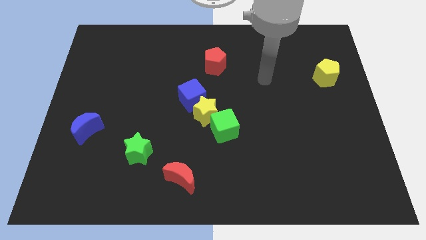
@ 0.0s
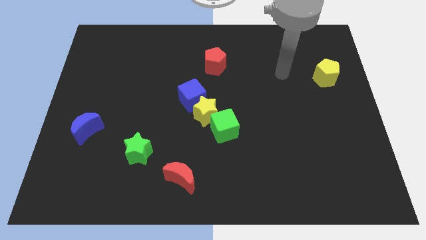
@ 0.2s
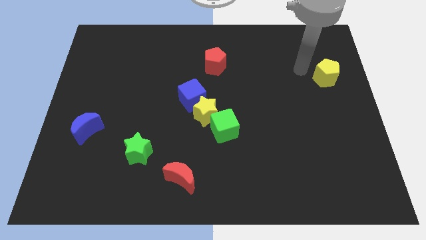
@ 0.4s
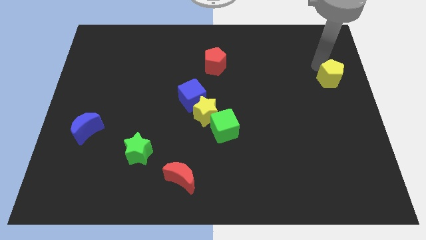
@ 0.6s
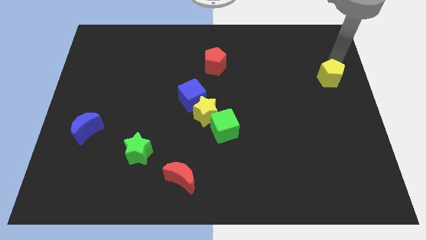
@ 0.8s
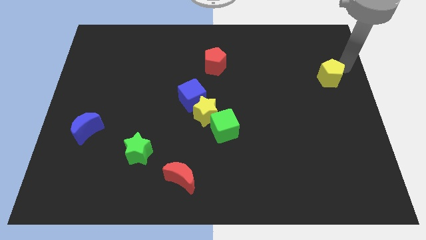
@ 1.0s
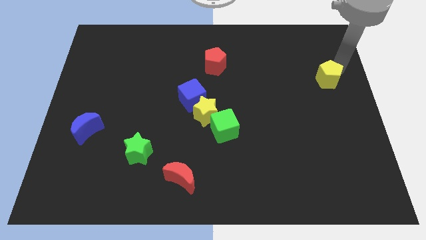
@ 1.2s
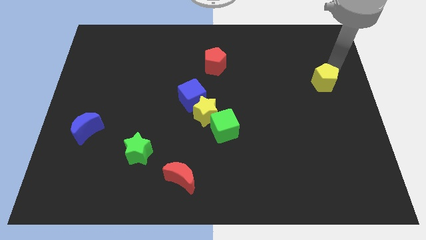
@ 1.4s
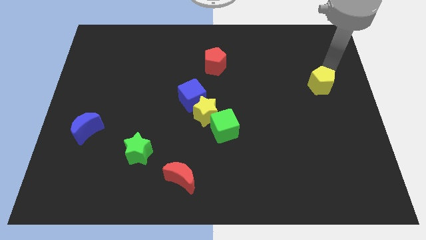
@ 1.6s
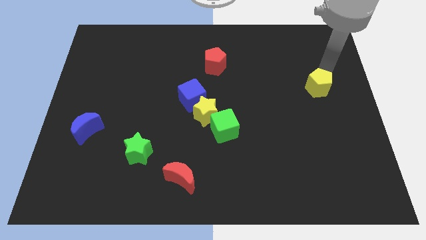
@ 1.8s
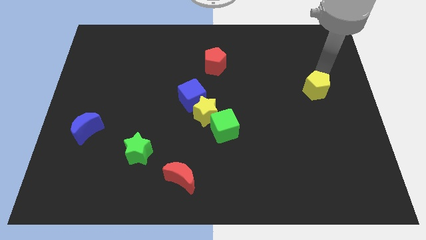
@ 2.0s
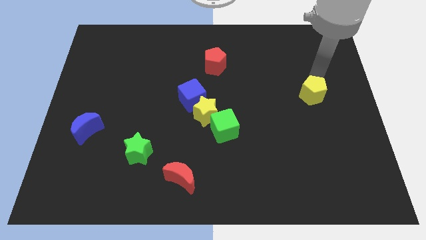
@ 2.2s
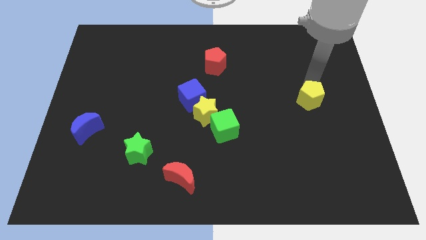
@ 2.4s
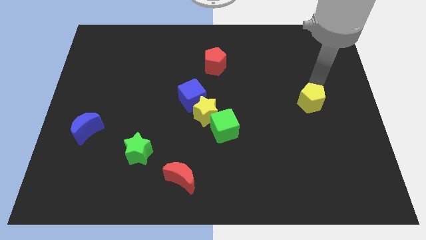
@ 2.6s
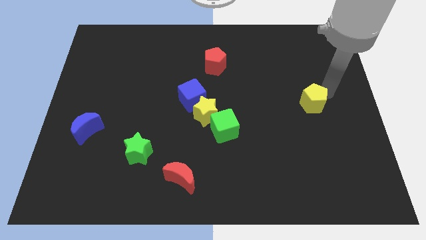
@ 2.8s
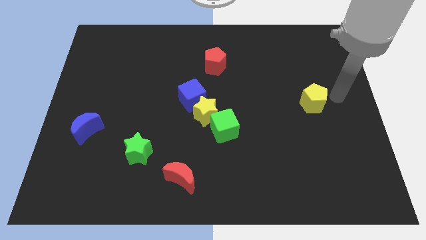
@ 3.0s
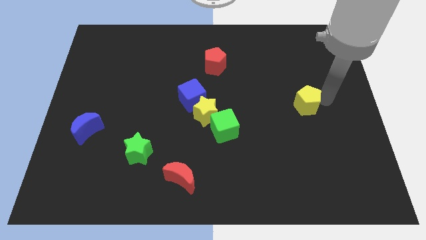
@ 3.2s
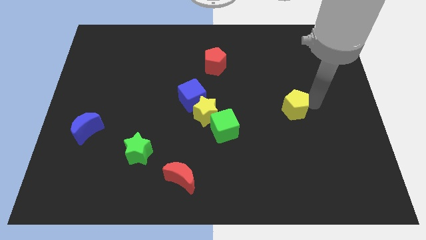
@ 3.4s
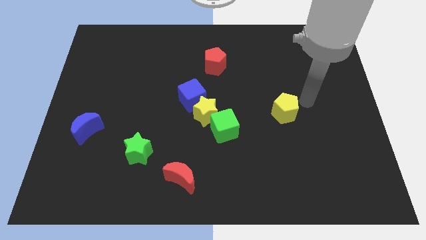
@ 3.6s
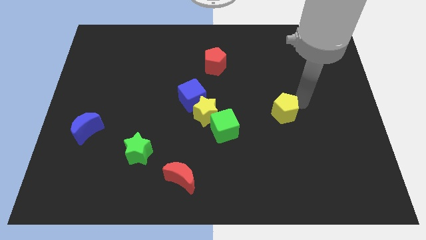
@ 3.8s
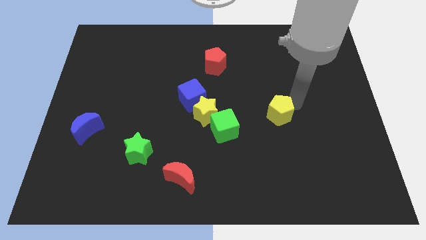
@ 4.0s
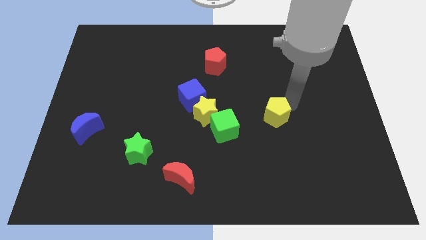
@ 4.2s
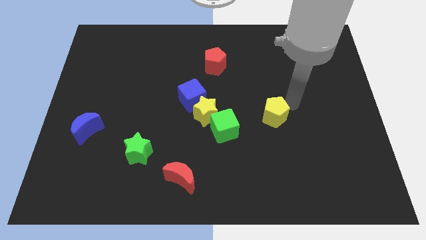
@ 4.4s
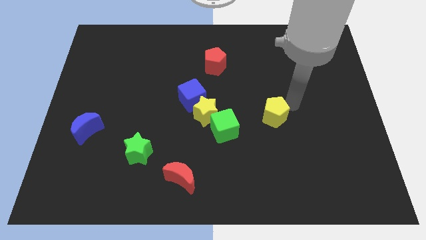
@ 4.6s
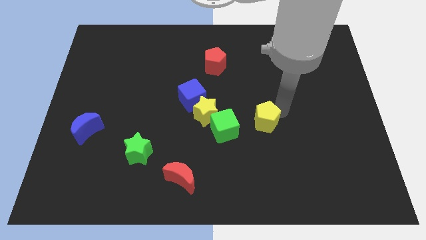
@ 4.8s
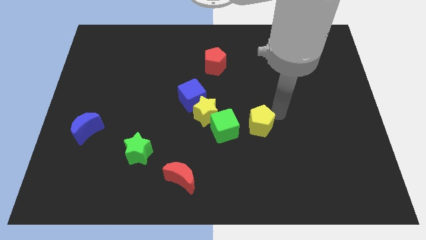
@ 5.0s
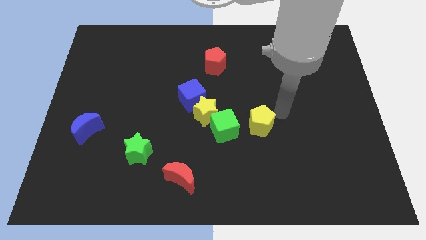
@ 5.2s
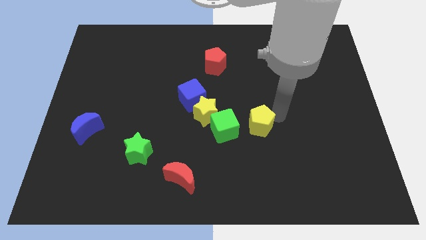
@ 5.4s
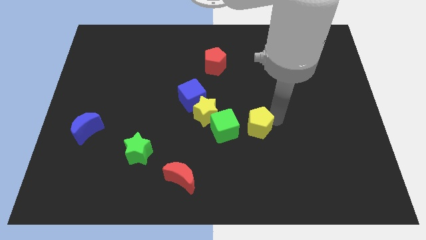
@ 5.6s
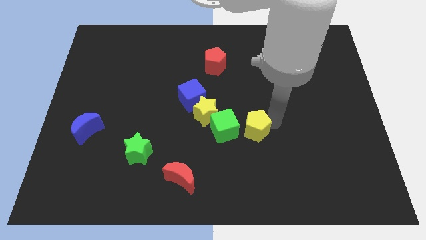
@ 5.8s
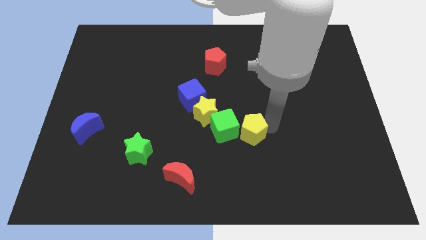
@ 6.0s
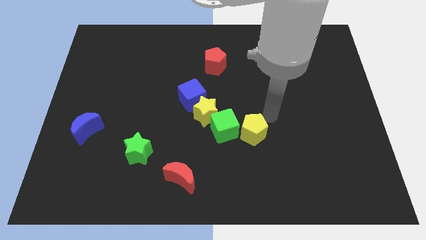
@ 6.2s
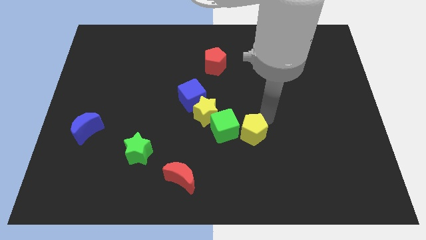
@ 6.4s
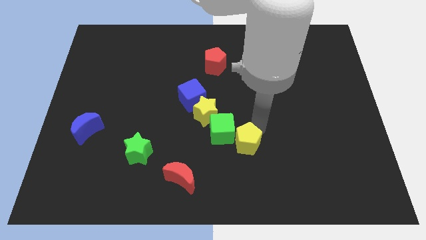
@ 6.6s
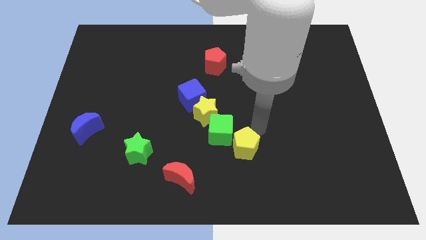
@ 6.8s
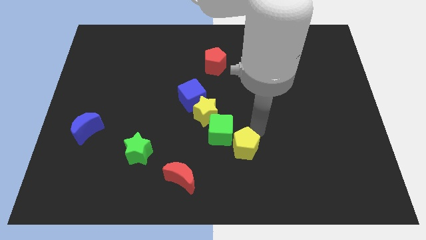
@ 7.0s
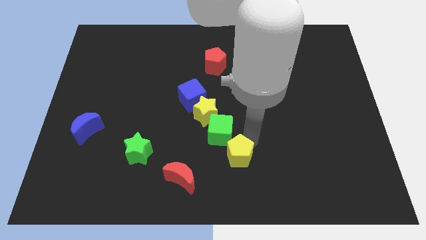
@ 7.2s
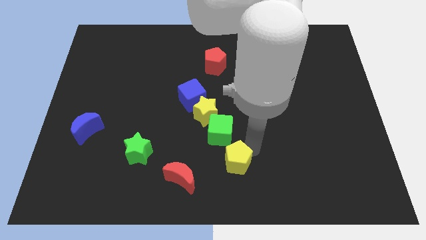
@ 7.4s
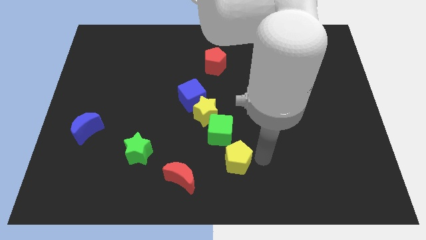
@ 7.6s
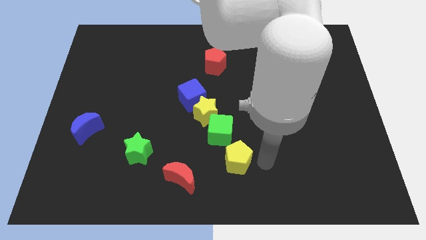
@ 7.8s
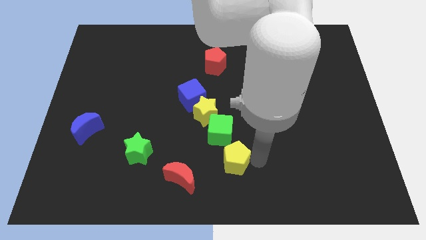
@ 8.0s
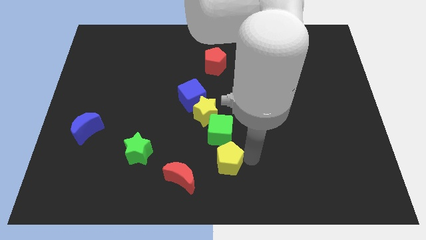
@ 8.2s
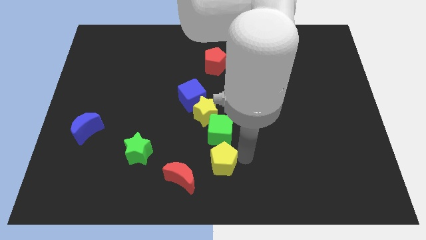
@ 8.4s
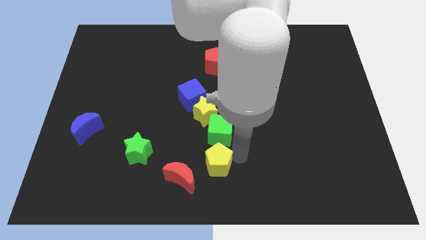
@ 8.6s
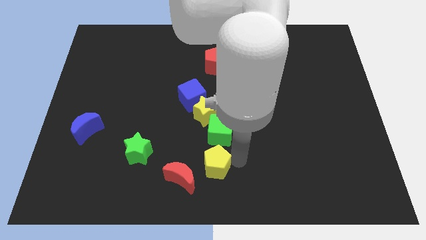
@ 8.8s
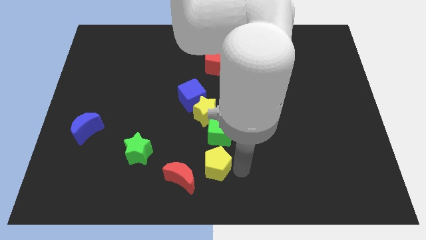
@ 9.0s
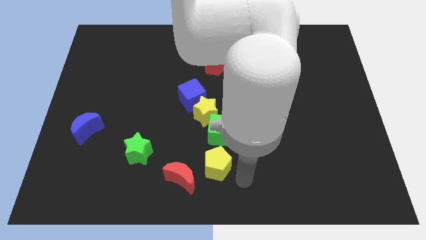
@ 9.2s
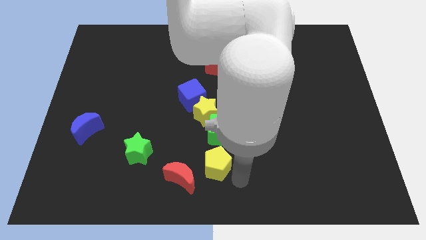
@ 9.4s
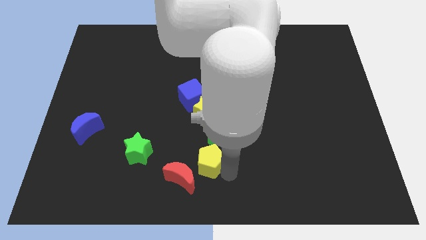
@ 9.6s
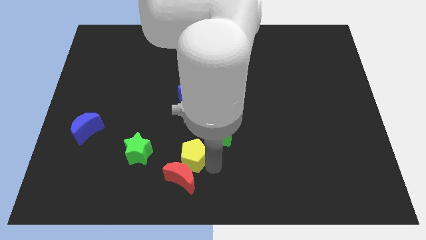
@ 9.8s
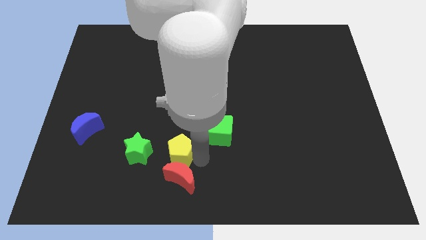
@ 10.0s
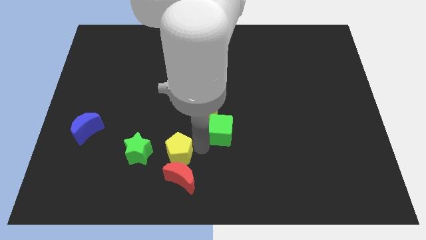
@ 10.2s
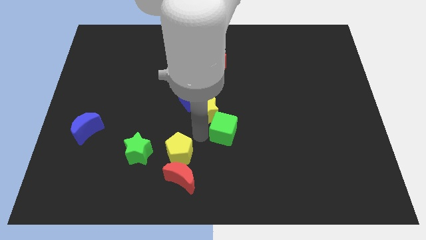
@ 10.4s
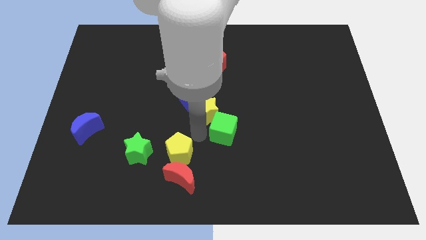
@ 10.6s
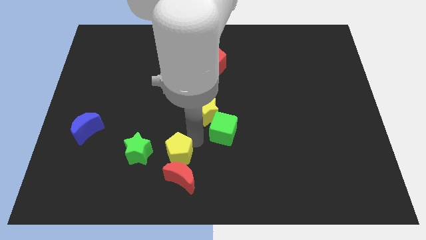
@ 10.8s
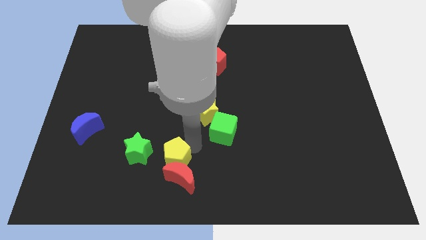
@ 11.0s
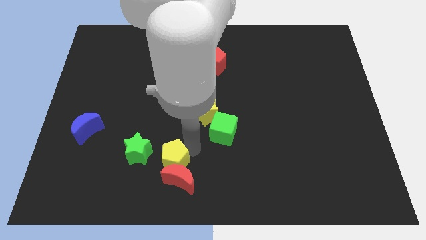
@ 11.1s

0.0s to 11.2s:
push the yellow pentagon to the bottom right side of the green star
